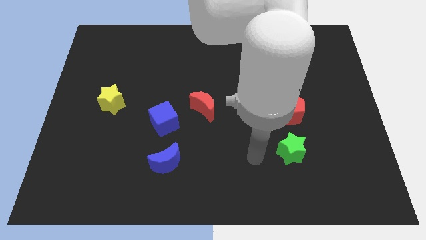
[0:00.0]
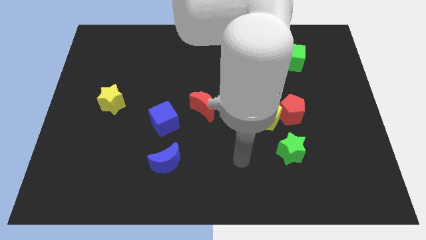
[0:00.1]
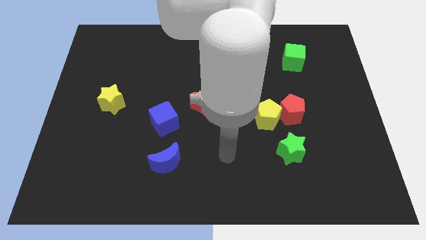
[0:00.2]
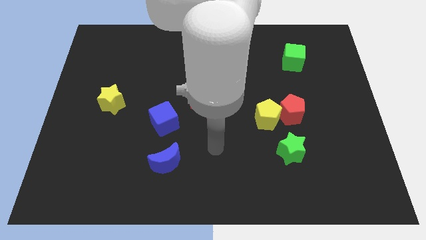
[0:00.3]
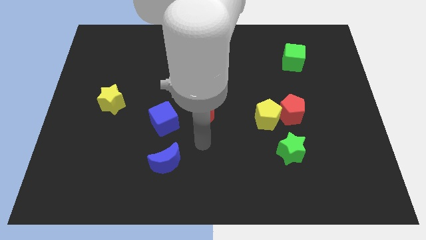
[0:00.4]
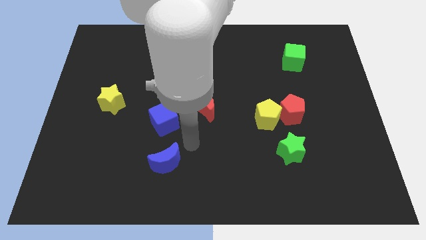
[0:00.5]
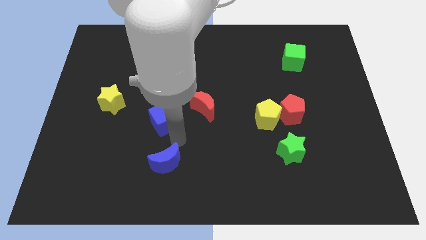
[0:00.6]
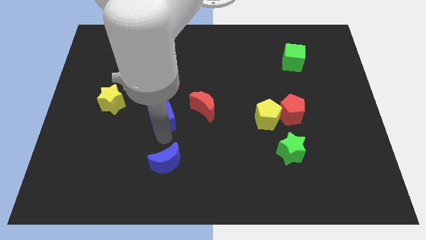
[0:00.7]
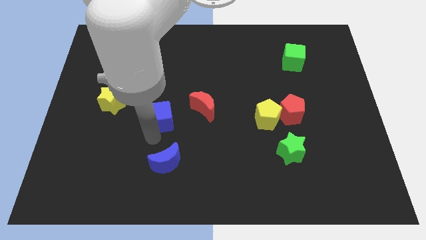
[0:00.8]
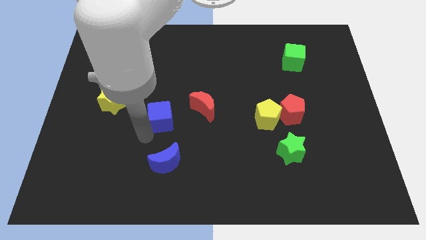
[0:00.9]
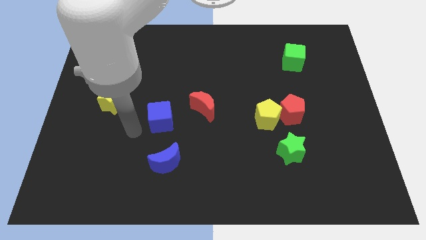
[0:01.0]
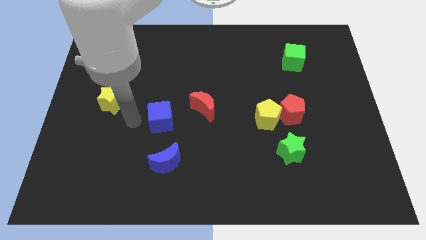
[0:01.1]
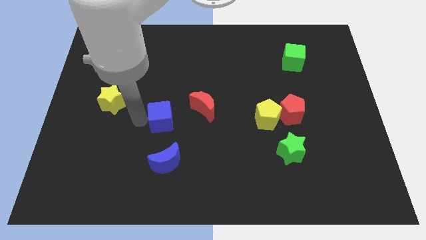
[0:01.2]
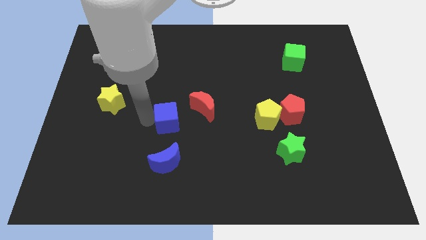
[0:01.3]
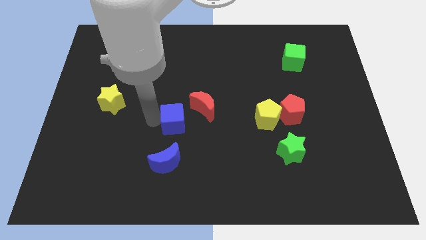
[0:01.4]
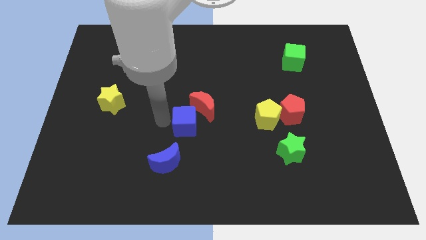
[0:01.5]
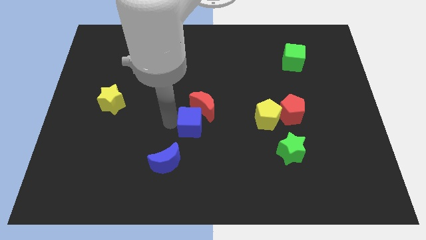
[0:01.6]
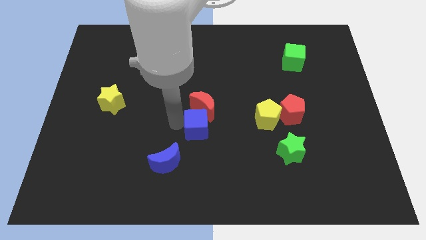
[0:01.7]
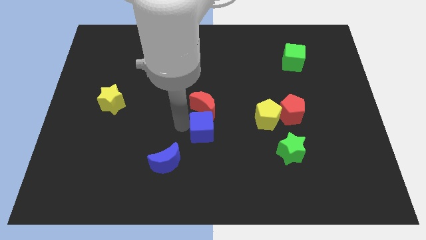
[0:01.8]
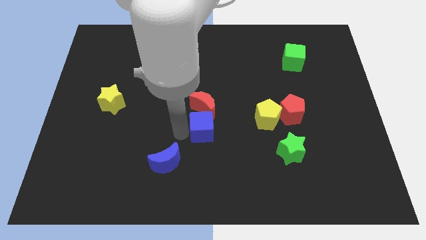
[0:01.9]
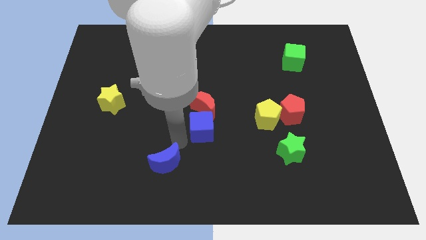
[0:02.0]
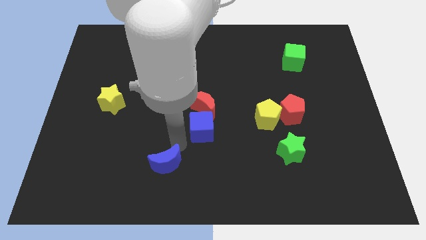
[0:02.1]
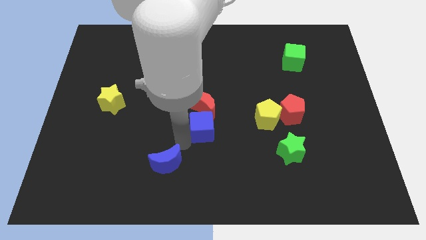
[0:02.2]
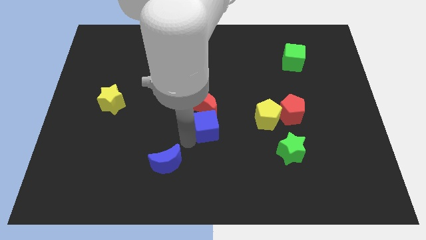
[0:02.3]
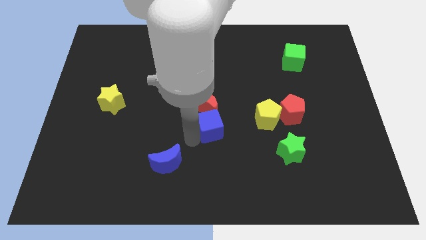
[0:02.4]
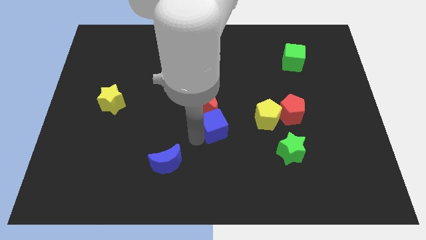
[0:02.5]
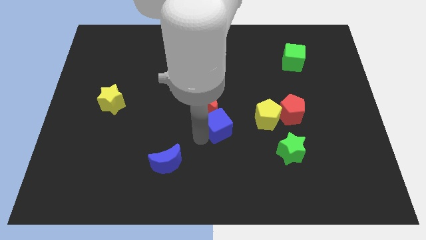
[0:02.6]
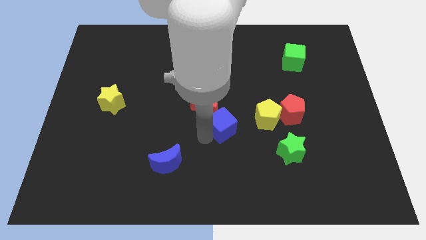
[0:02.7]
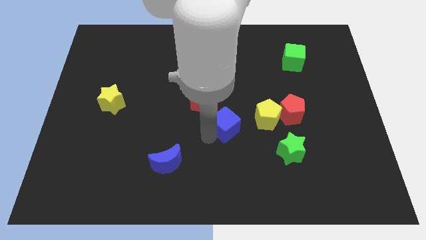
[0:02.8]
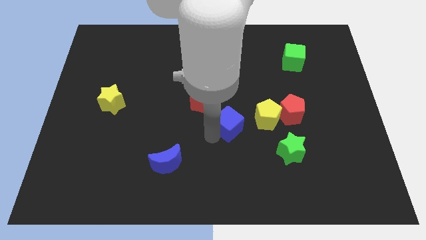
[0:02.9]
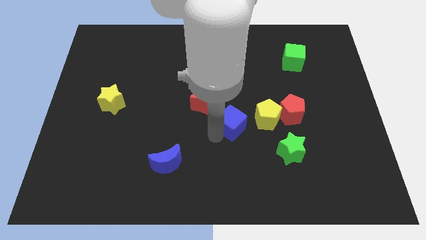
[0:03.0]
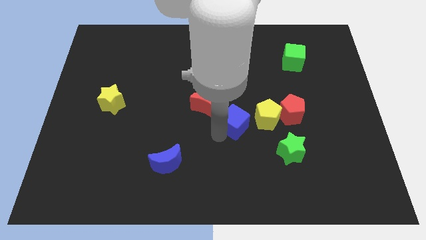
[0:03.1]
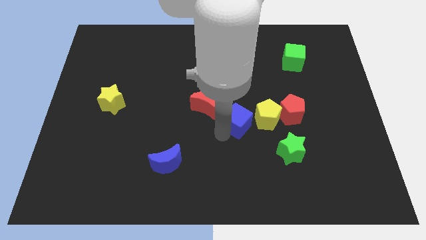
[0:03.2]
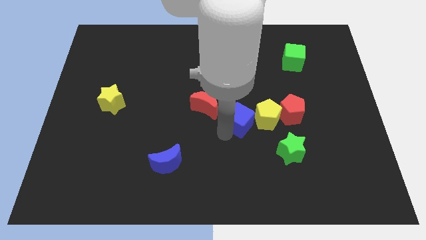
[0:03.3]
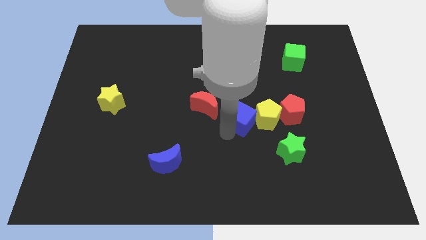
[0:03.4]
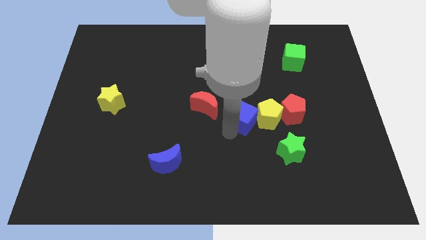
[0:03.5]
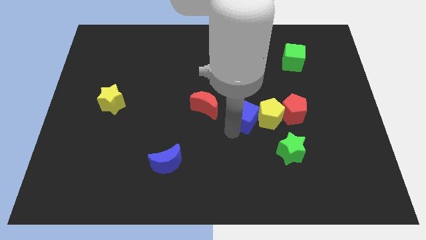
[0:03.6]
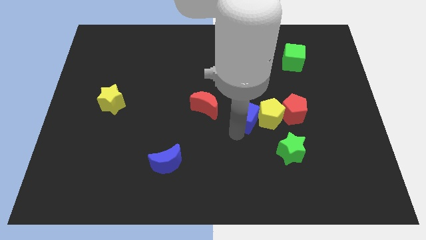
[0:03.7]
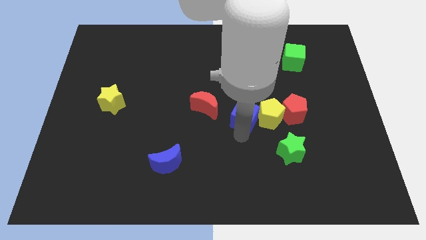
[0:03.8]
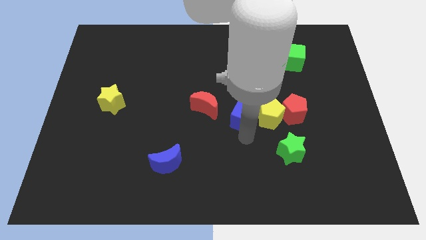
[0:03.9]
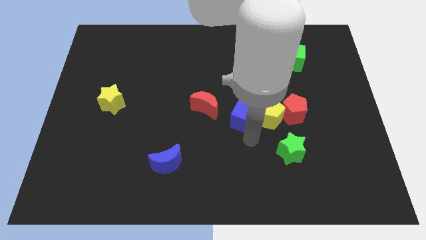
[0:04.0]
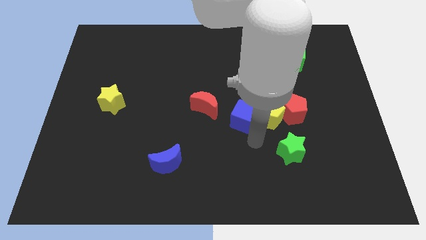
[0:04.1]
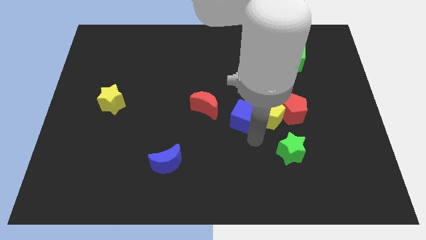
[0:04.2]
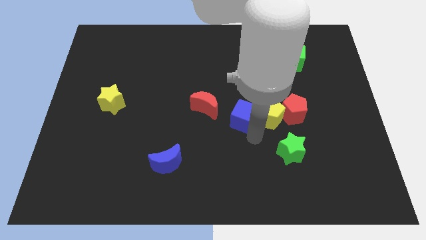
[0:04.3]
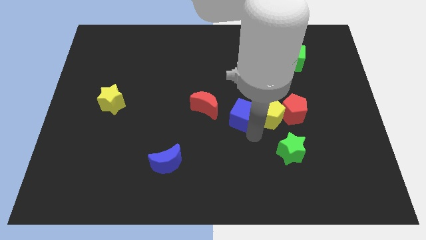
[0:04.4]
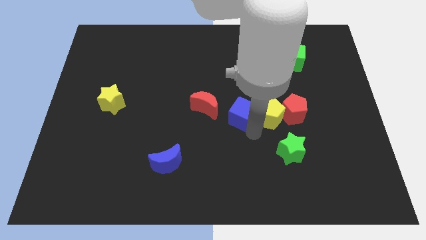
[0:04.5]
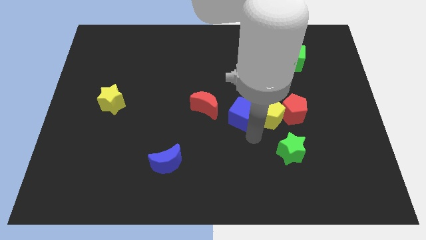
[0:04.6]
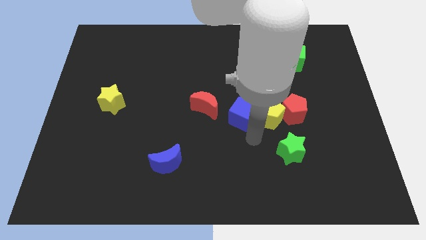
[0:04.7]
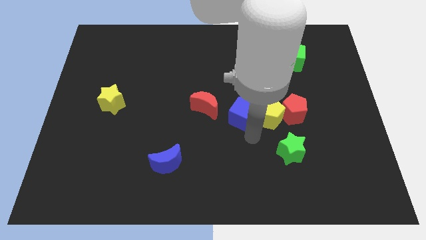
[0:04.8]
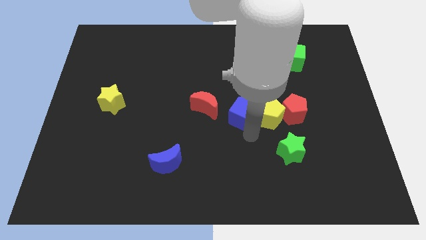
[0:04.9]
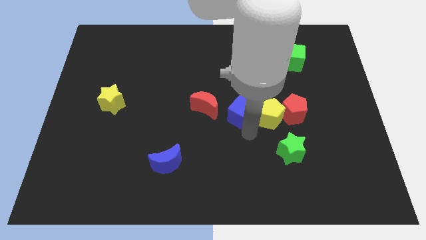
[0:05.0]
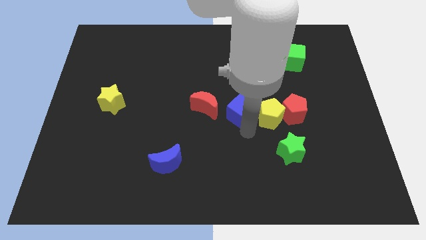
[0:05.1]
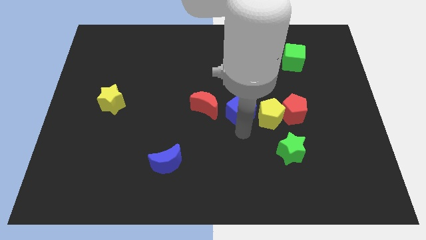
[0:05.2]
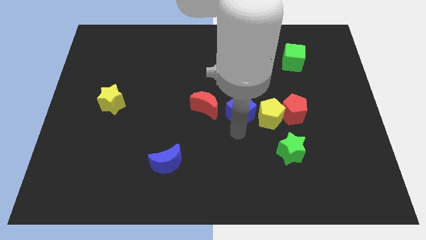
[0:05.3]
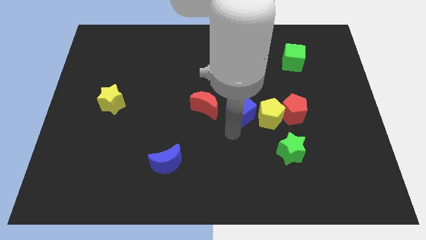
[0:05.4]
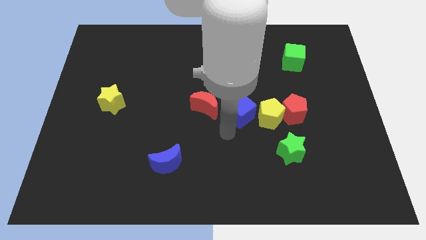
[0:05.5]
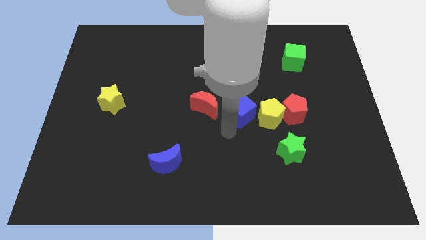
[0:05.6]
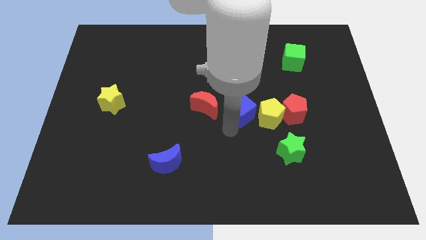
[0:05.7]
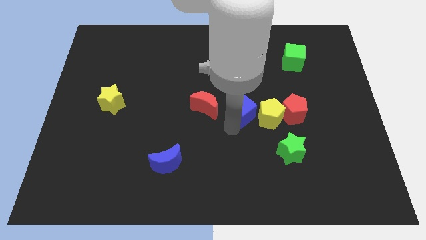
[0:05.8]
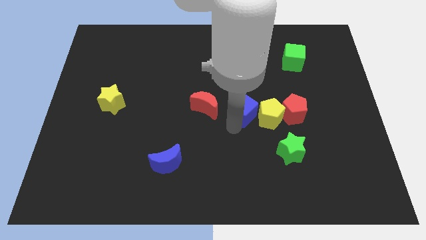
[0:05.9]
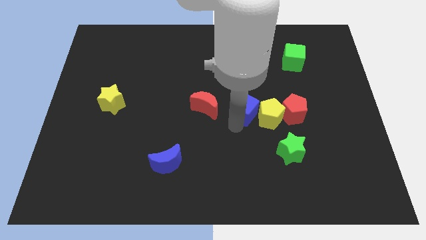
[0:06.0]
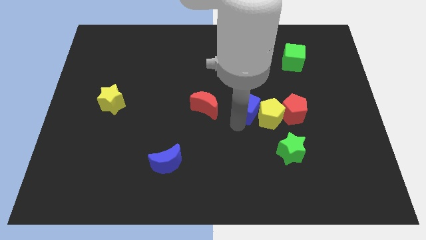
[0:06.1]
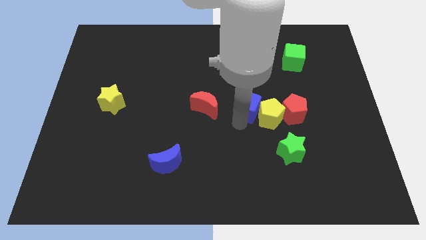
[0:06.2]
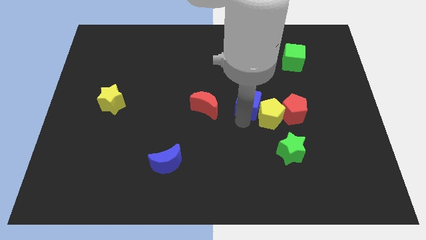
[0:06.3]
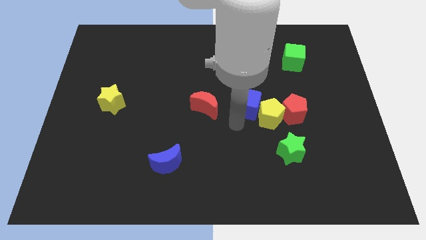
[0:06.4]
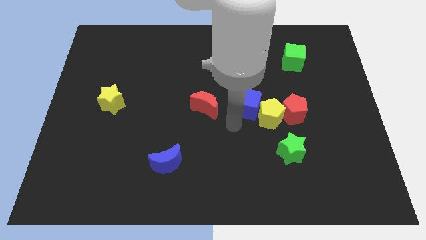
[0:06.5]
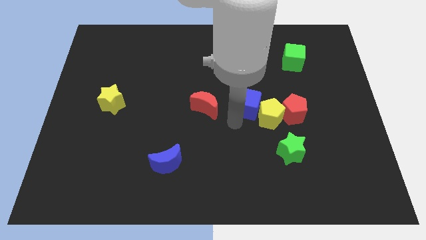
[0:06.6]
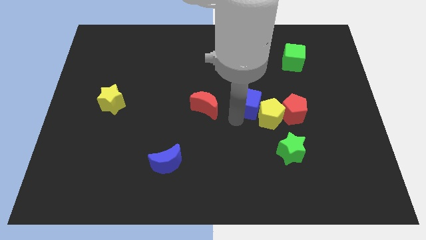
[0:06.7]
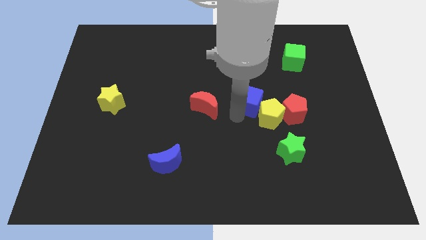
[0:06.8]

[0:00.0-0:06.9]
push the blue cube above the yellow pentagon

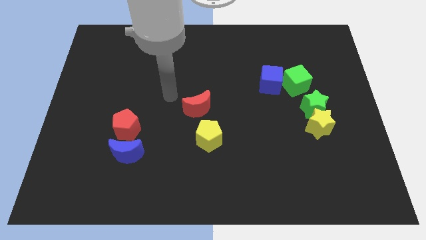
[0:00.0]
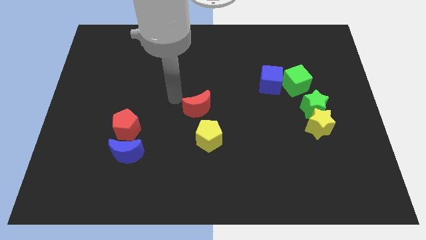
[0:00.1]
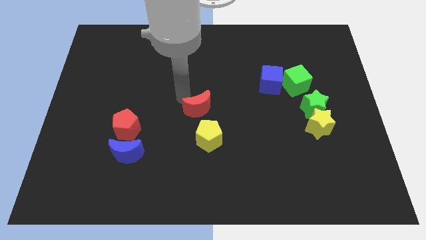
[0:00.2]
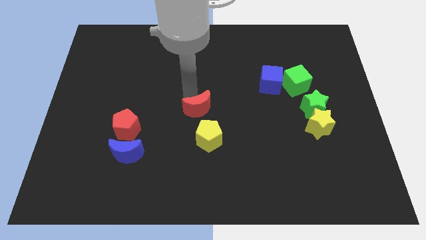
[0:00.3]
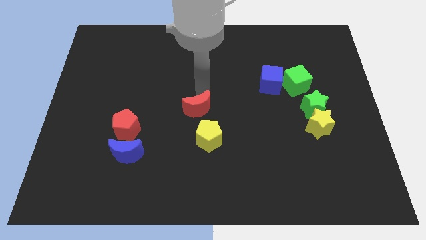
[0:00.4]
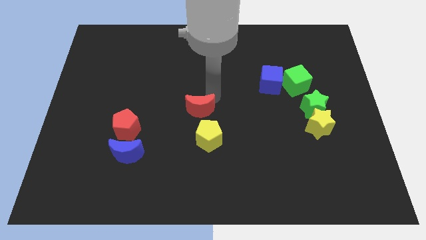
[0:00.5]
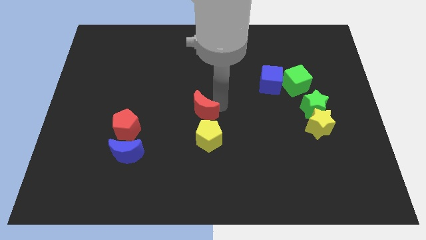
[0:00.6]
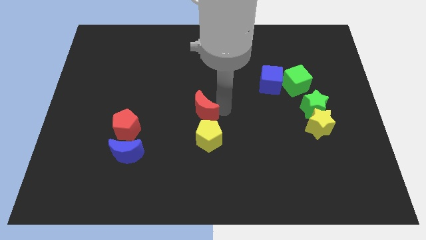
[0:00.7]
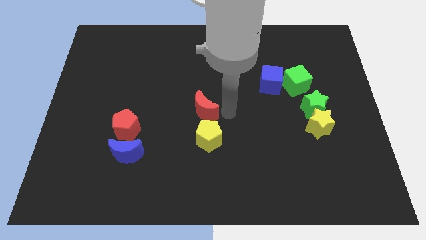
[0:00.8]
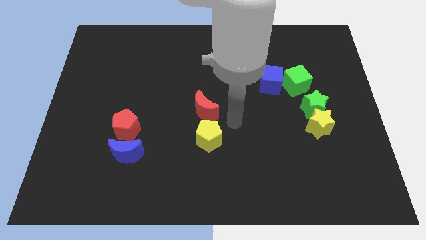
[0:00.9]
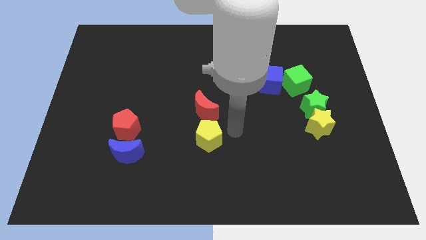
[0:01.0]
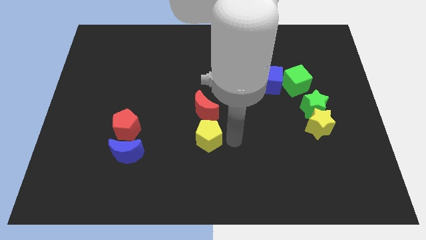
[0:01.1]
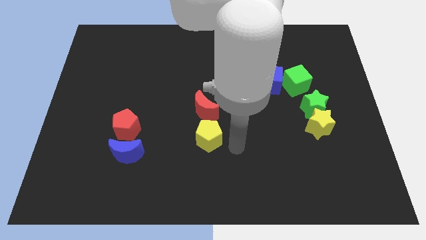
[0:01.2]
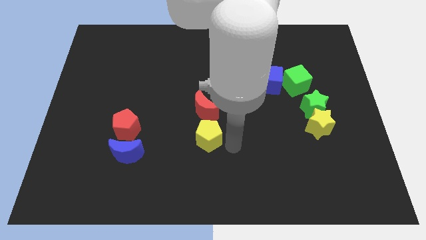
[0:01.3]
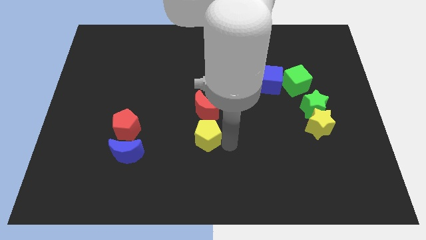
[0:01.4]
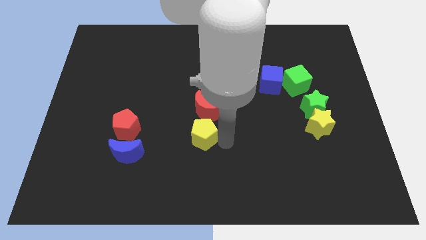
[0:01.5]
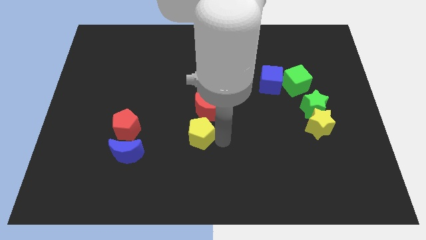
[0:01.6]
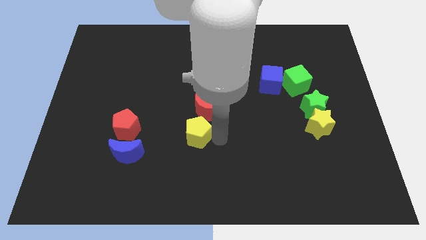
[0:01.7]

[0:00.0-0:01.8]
slide the yellow pentagon to the right of the red pentagon
